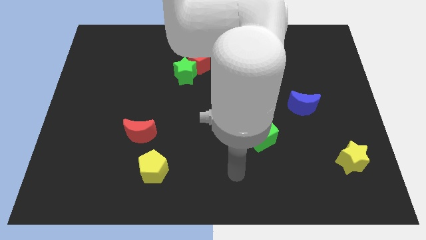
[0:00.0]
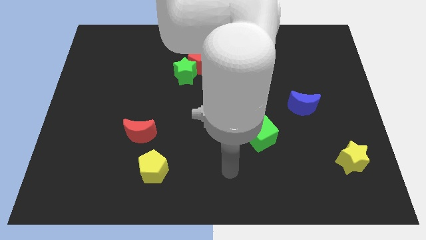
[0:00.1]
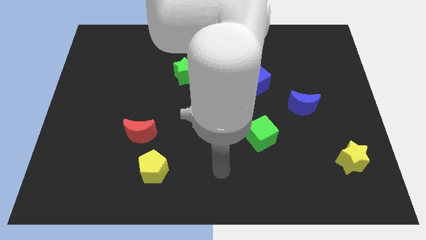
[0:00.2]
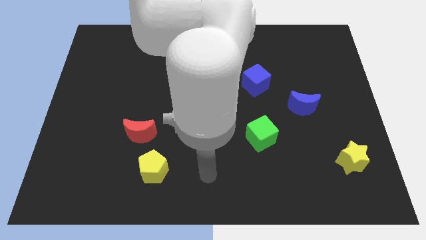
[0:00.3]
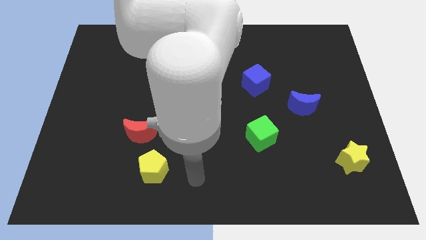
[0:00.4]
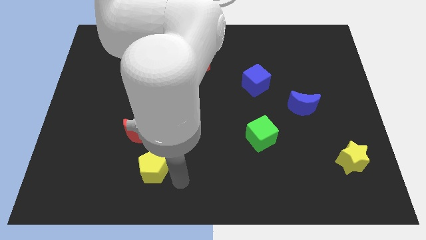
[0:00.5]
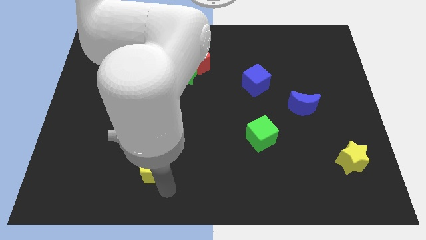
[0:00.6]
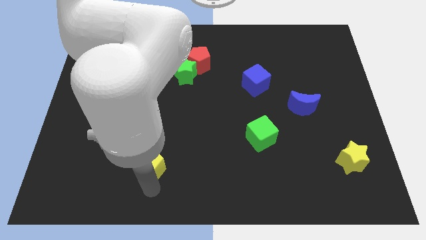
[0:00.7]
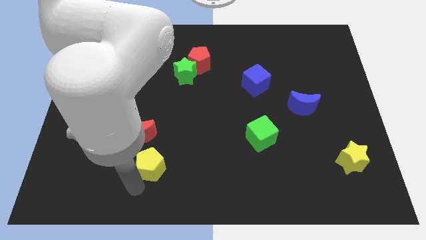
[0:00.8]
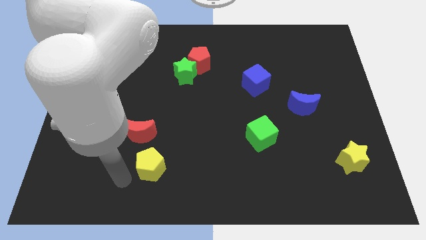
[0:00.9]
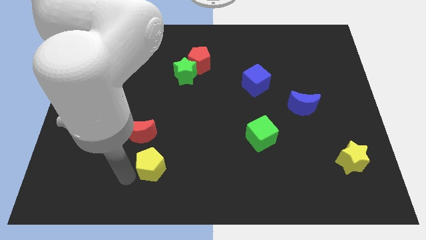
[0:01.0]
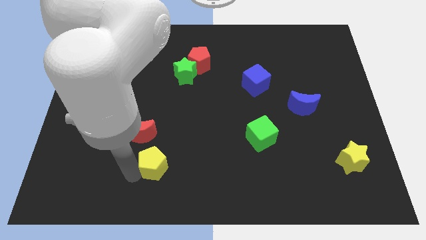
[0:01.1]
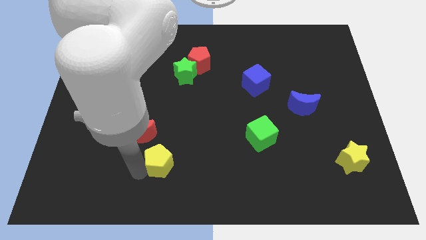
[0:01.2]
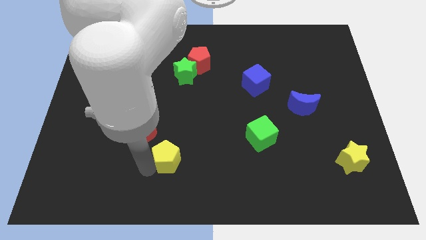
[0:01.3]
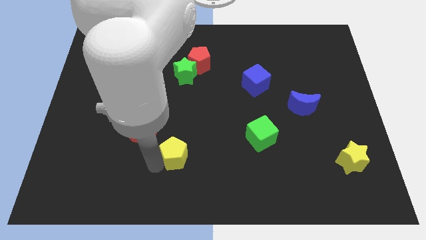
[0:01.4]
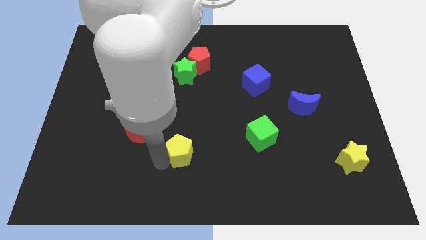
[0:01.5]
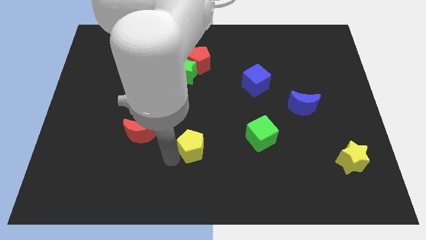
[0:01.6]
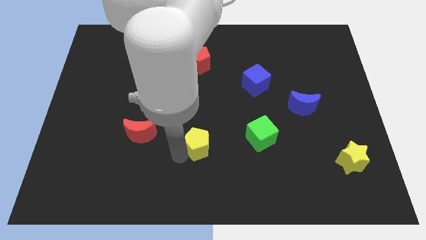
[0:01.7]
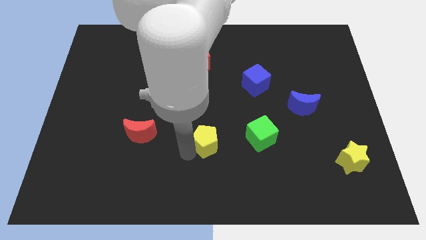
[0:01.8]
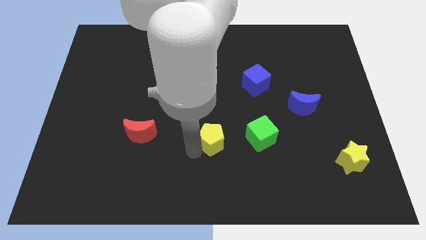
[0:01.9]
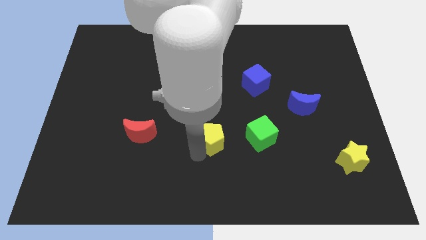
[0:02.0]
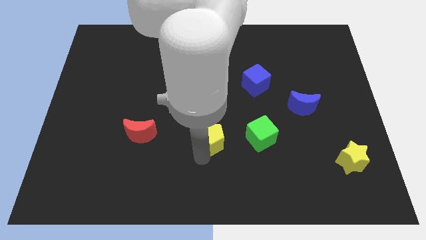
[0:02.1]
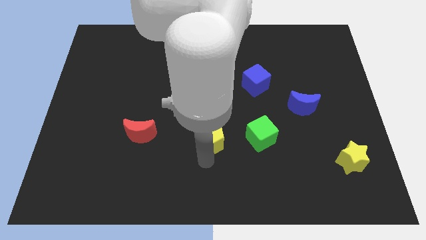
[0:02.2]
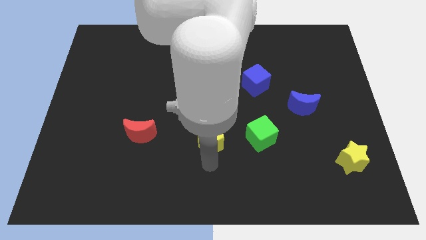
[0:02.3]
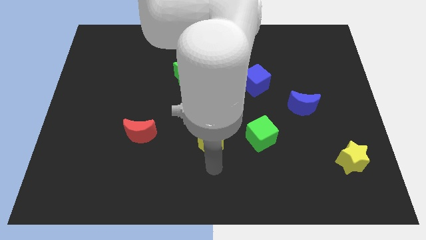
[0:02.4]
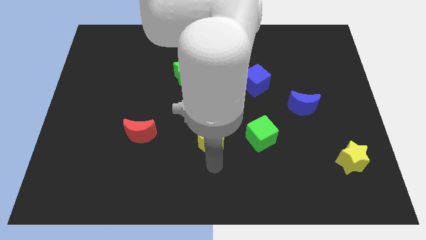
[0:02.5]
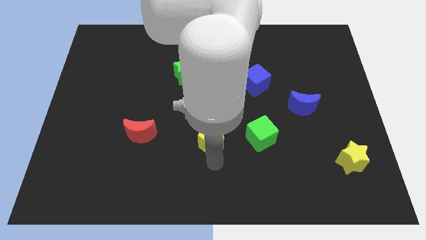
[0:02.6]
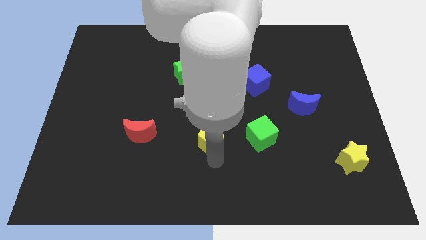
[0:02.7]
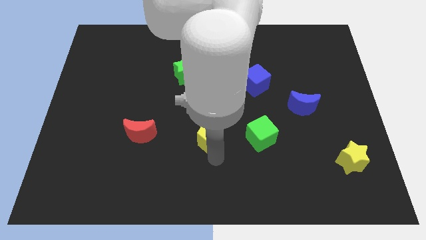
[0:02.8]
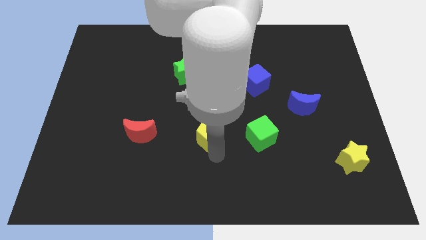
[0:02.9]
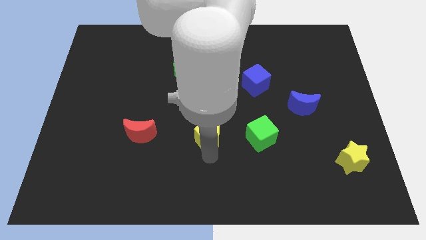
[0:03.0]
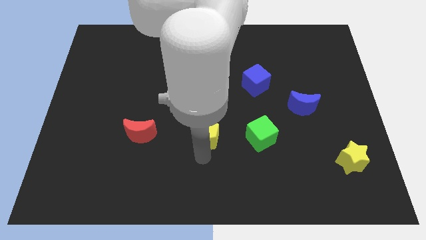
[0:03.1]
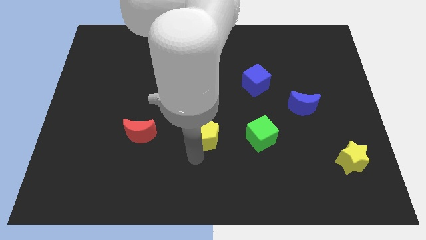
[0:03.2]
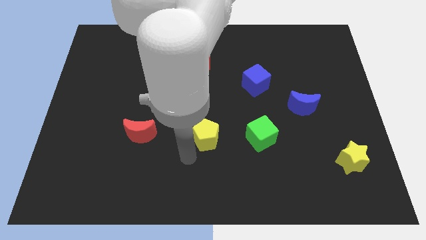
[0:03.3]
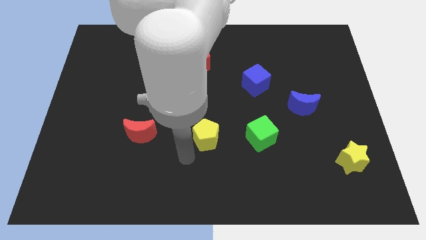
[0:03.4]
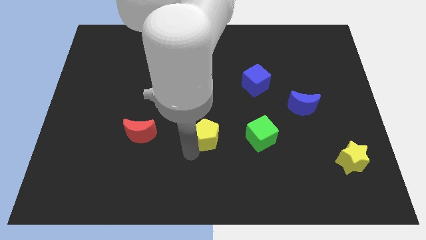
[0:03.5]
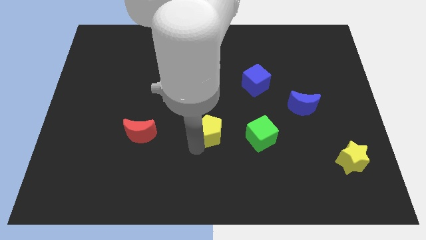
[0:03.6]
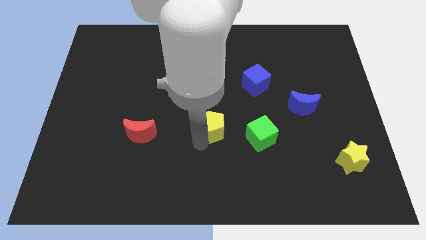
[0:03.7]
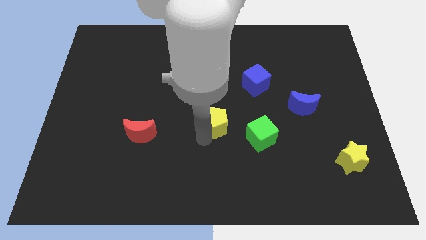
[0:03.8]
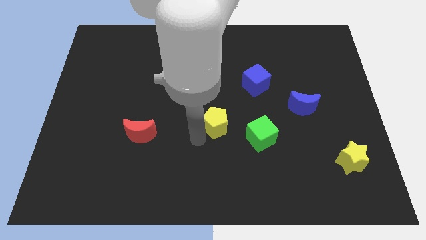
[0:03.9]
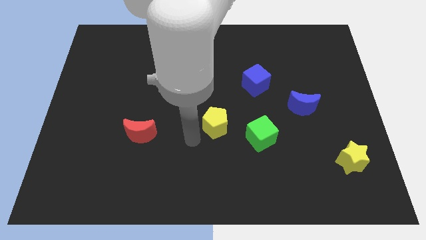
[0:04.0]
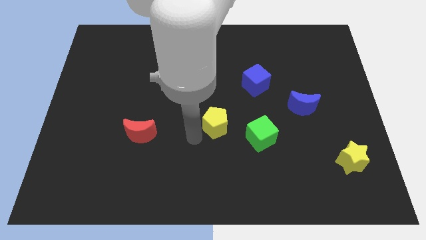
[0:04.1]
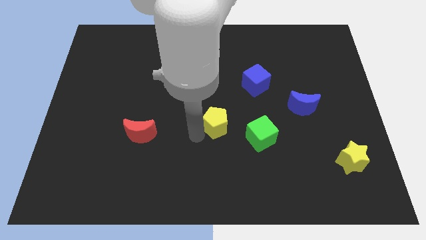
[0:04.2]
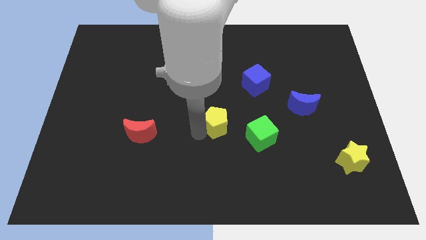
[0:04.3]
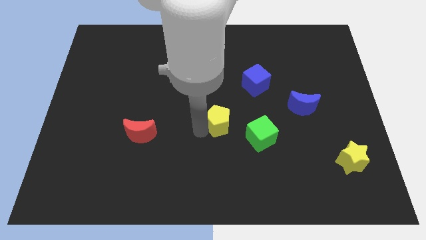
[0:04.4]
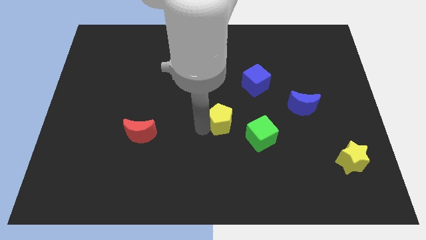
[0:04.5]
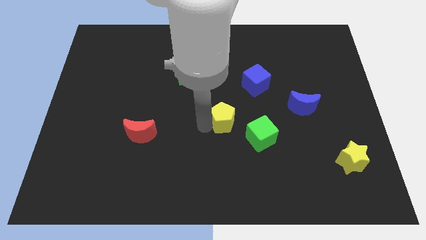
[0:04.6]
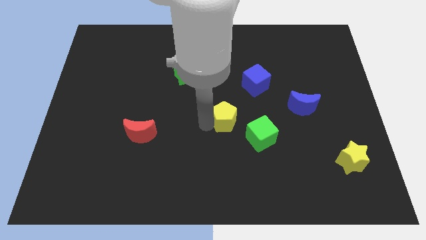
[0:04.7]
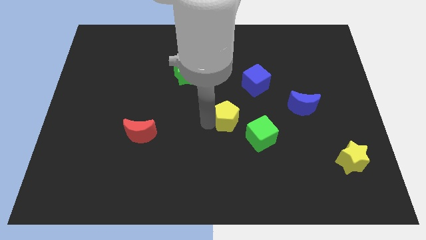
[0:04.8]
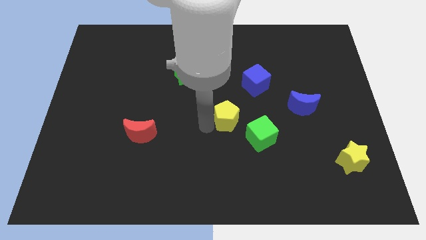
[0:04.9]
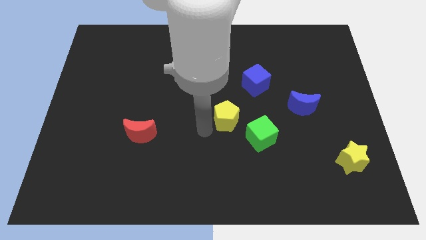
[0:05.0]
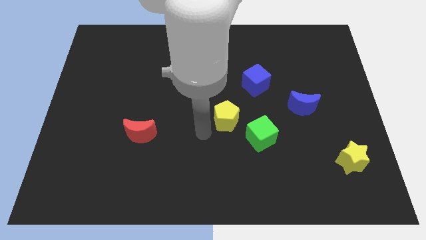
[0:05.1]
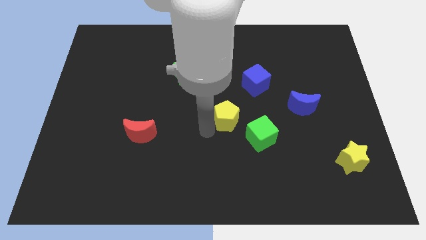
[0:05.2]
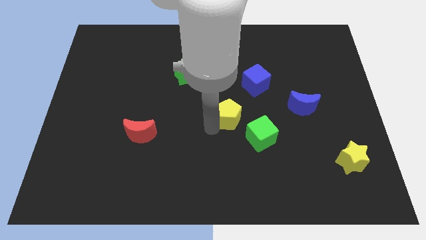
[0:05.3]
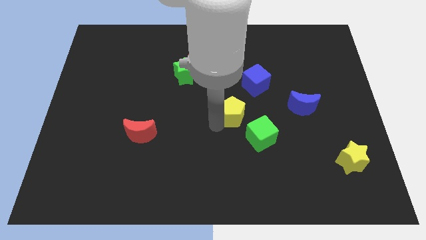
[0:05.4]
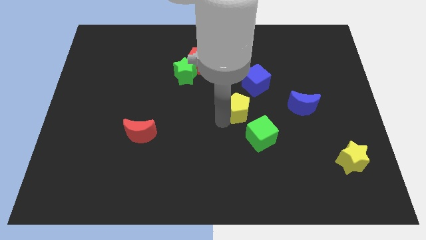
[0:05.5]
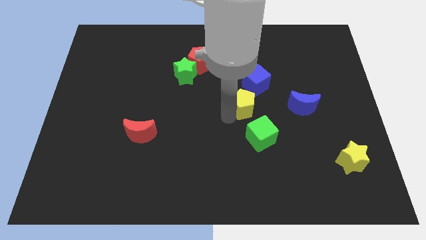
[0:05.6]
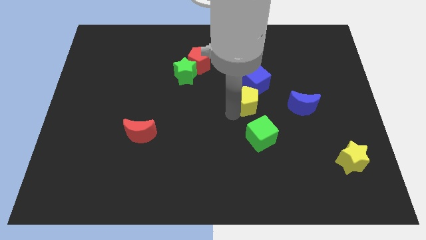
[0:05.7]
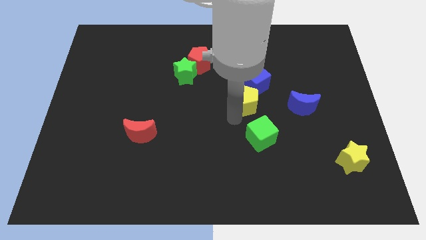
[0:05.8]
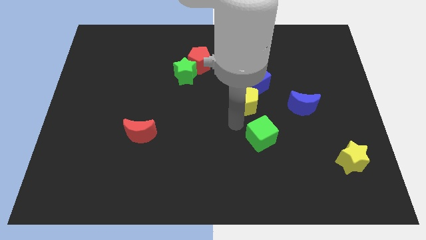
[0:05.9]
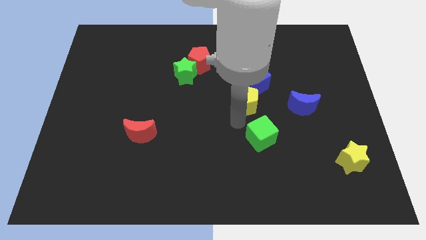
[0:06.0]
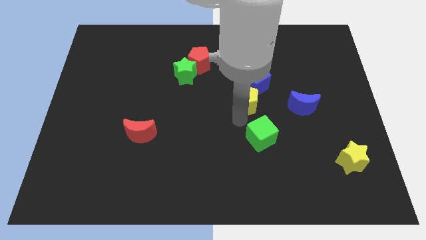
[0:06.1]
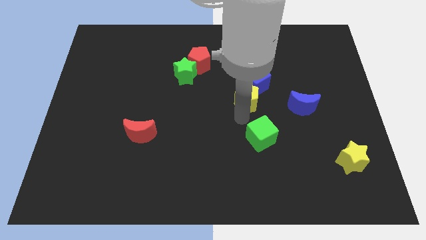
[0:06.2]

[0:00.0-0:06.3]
move the yellow pentagon close to the blue cube

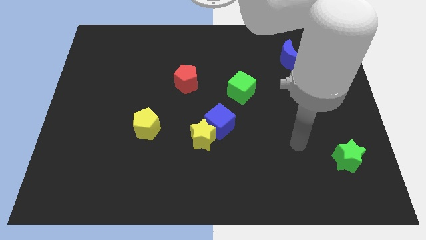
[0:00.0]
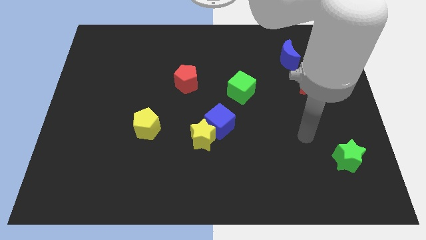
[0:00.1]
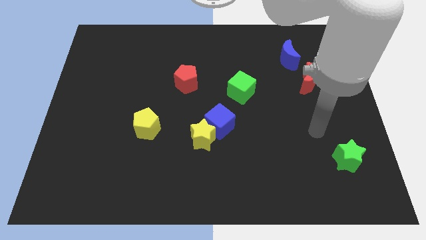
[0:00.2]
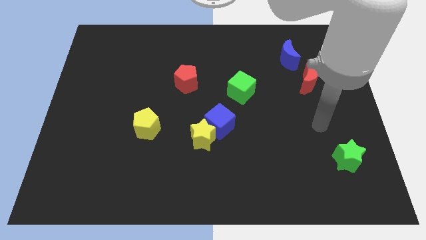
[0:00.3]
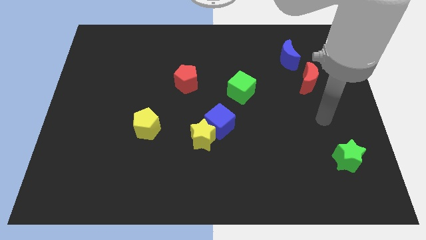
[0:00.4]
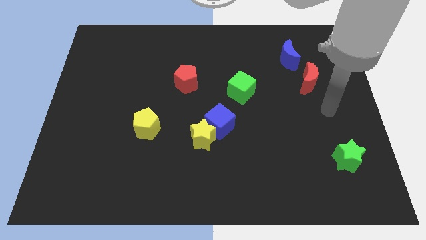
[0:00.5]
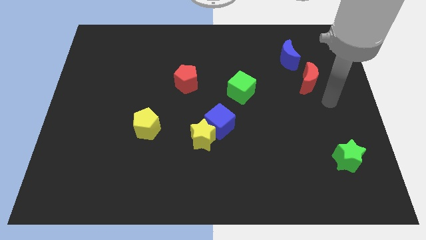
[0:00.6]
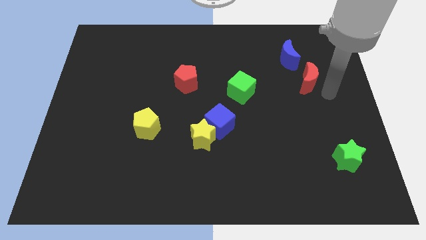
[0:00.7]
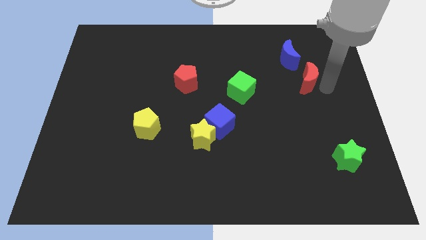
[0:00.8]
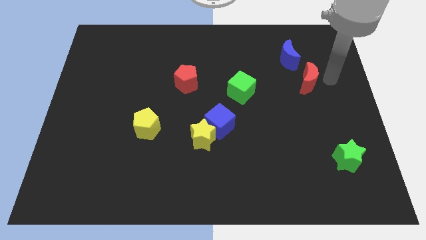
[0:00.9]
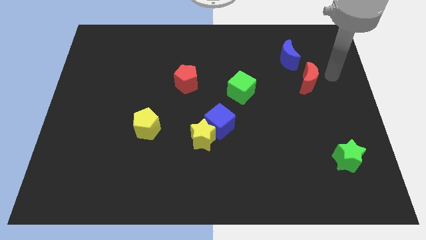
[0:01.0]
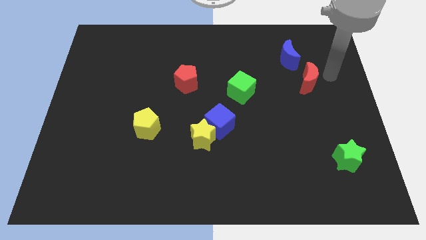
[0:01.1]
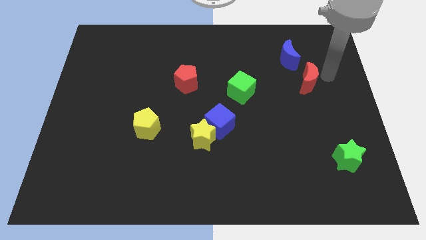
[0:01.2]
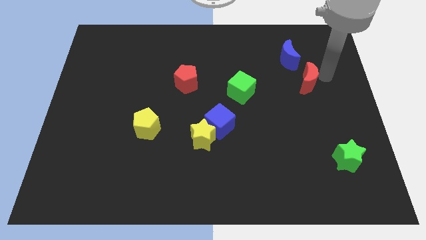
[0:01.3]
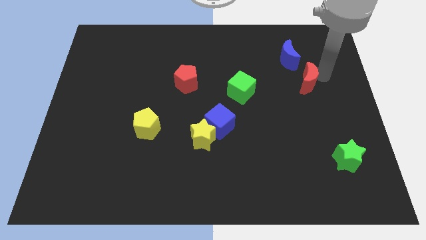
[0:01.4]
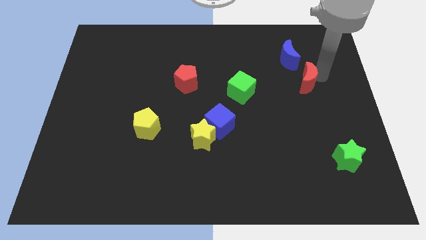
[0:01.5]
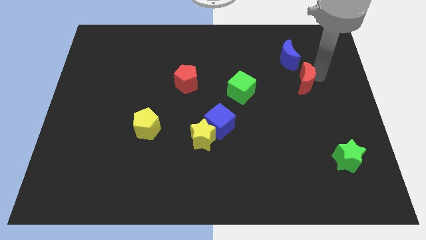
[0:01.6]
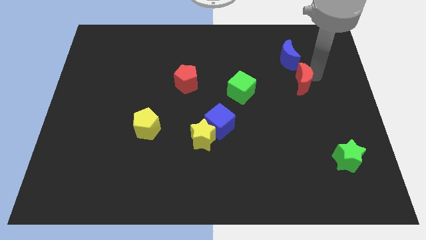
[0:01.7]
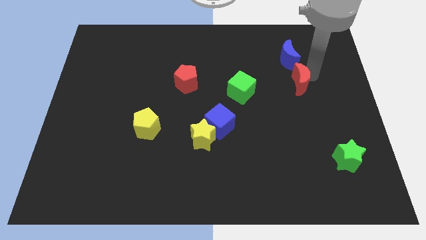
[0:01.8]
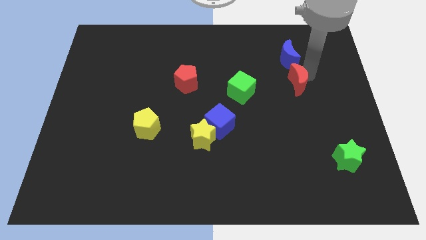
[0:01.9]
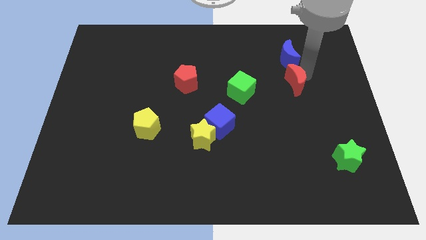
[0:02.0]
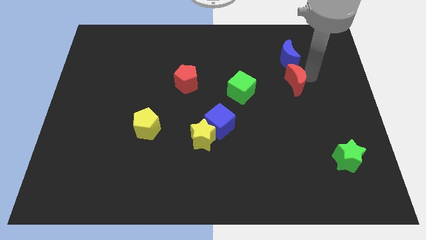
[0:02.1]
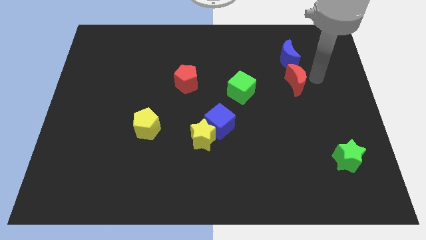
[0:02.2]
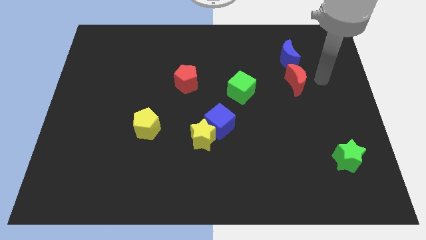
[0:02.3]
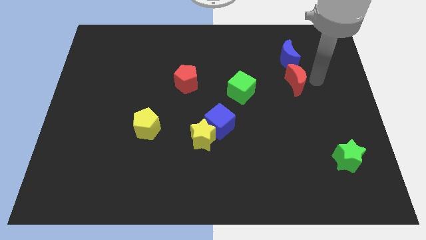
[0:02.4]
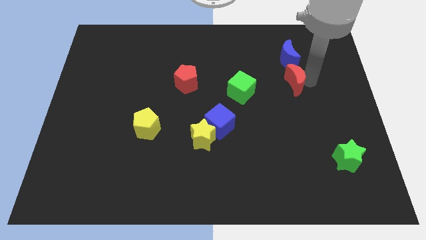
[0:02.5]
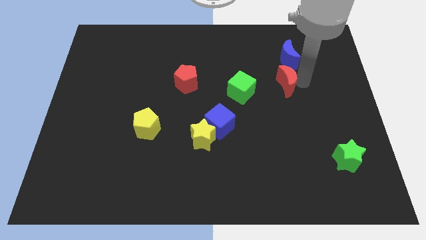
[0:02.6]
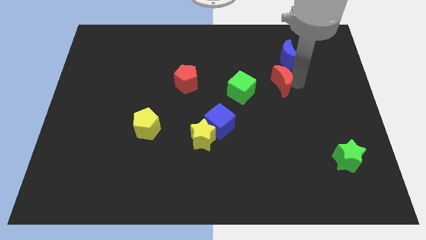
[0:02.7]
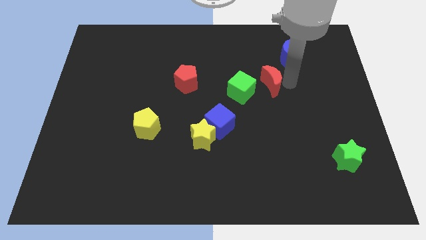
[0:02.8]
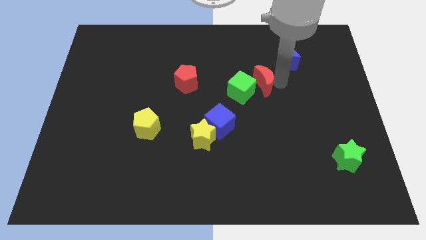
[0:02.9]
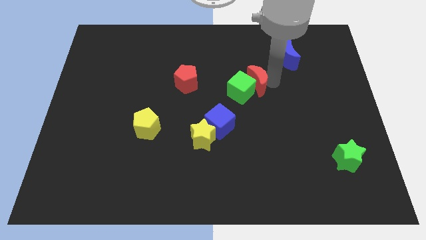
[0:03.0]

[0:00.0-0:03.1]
push the red moon next to the green cube
